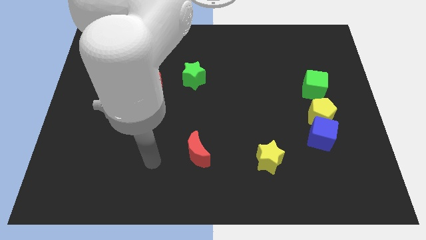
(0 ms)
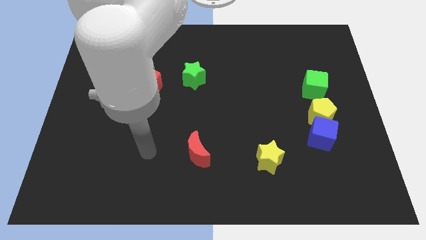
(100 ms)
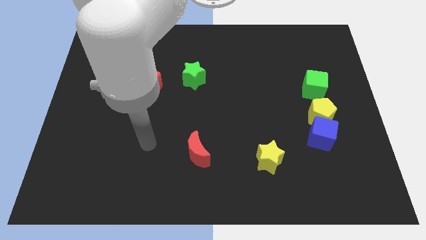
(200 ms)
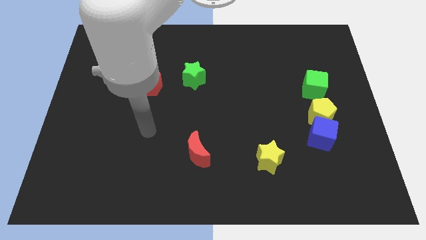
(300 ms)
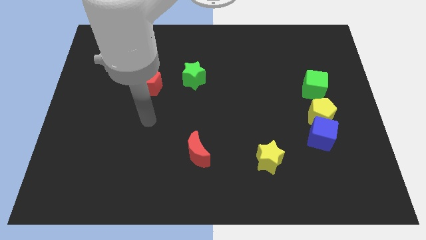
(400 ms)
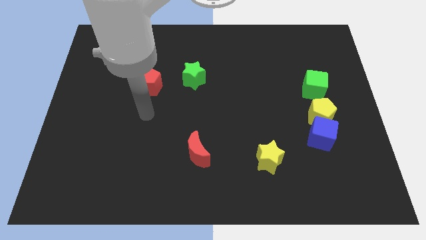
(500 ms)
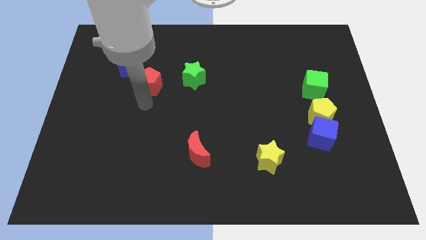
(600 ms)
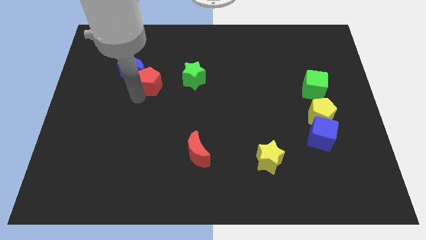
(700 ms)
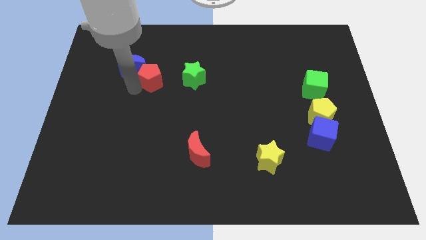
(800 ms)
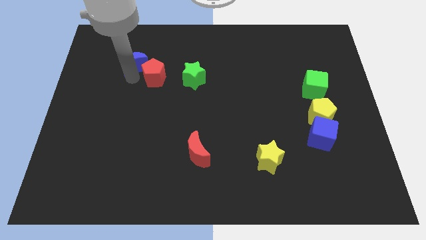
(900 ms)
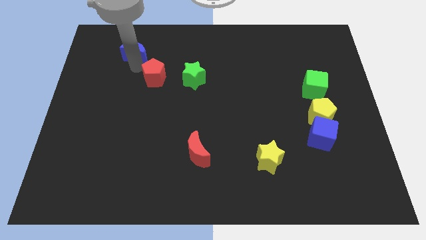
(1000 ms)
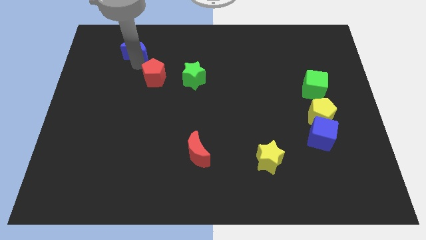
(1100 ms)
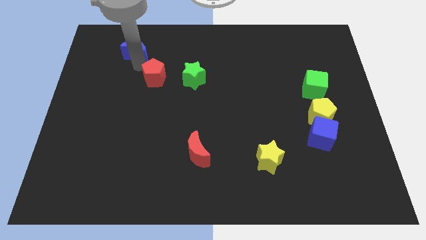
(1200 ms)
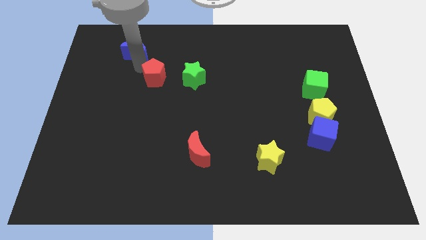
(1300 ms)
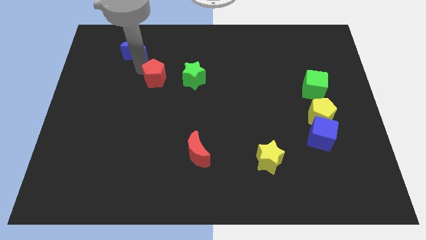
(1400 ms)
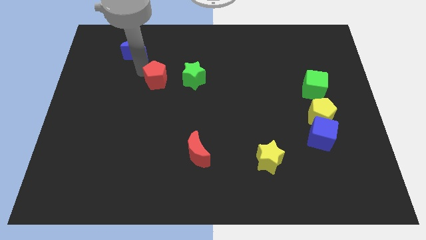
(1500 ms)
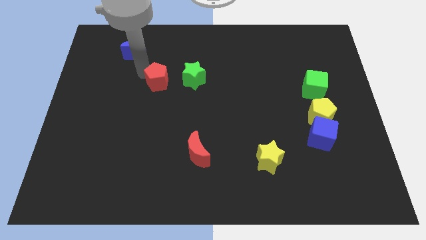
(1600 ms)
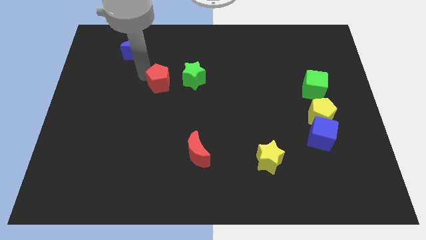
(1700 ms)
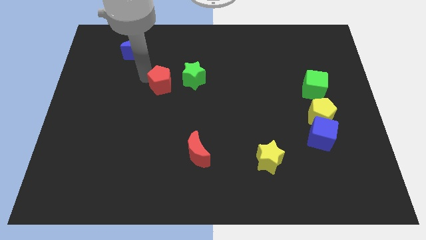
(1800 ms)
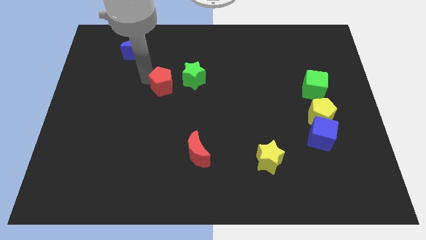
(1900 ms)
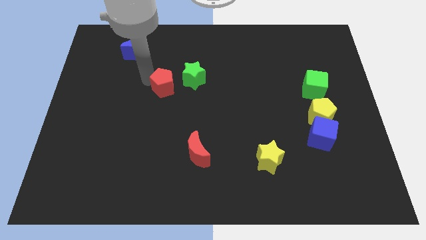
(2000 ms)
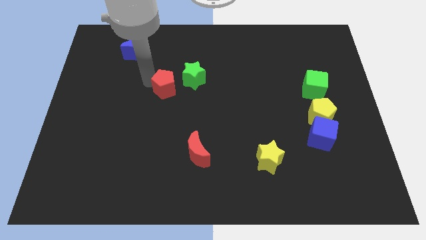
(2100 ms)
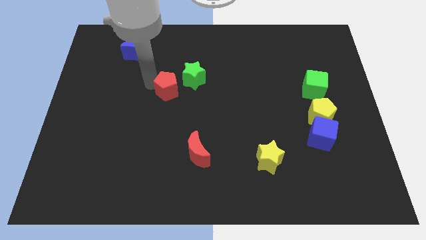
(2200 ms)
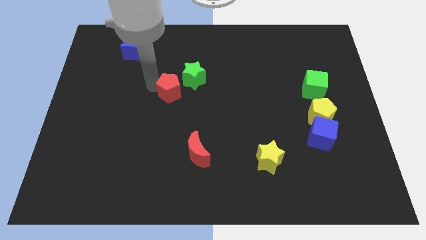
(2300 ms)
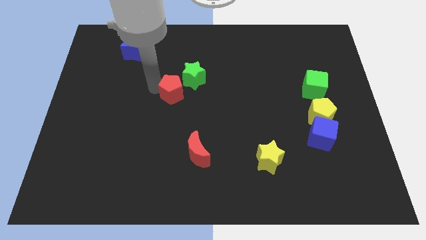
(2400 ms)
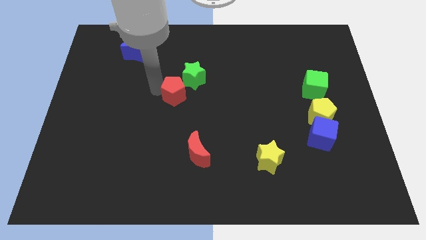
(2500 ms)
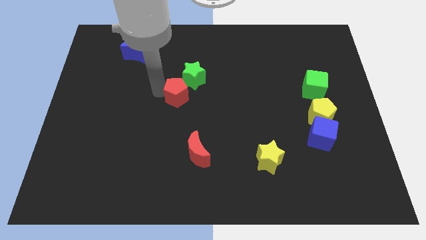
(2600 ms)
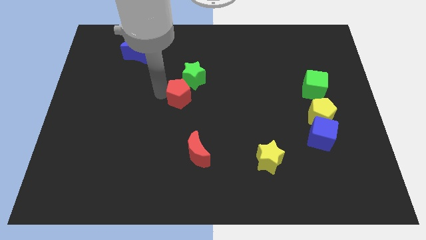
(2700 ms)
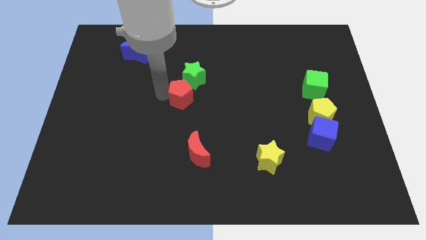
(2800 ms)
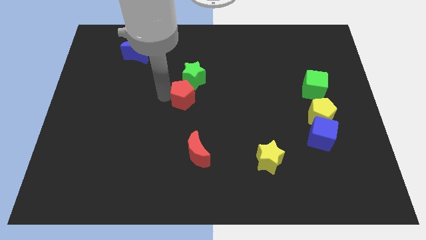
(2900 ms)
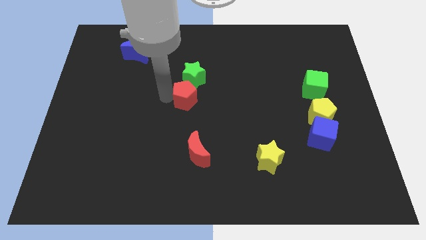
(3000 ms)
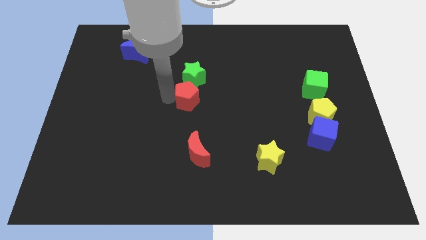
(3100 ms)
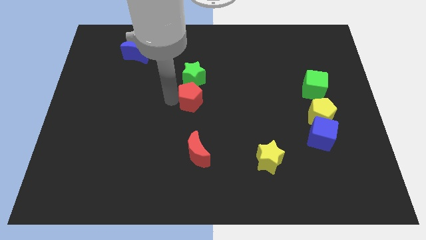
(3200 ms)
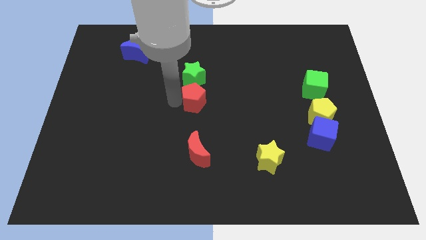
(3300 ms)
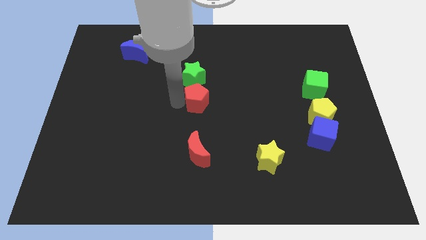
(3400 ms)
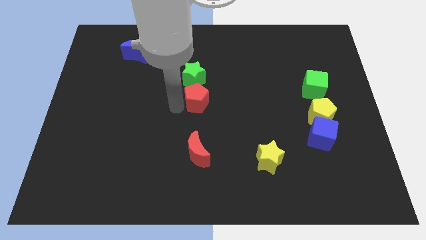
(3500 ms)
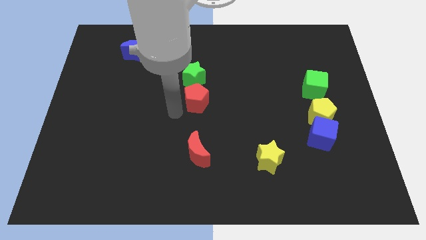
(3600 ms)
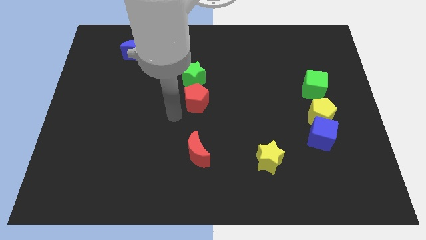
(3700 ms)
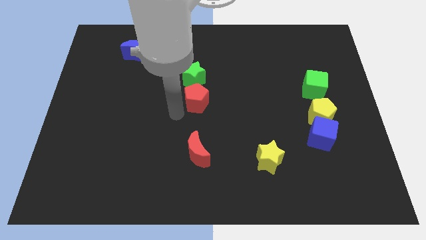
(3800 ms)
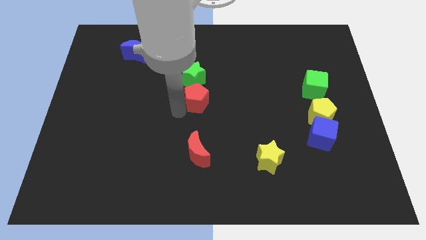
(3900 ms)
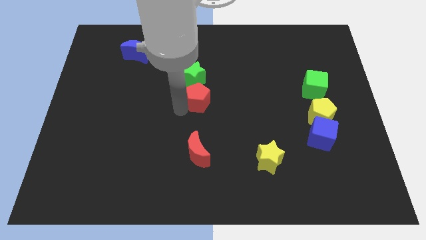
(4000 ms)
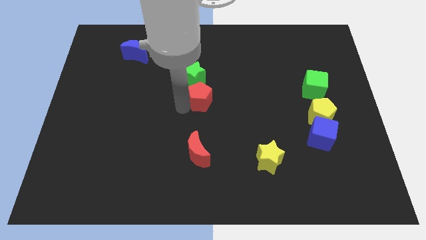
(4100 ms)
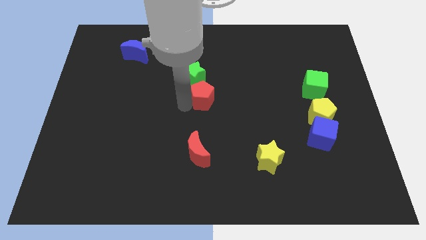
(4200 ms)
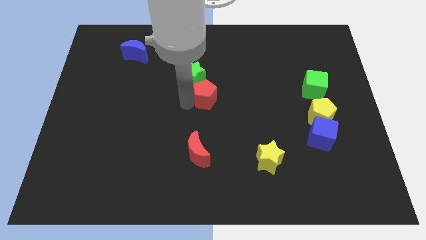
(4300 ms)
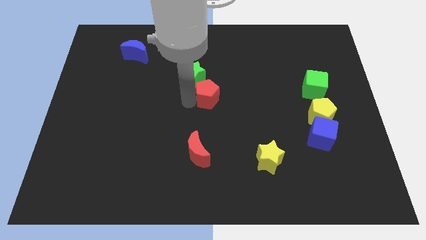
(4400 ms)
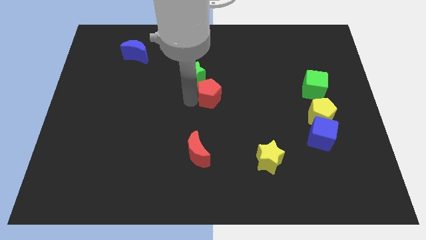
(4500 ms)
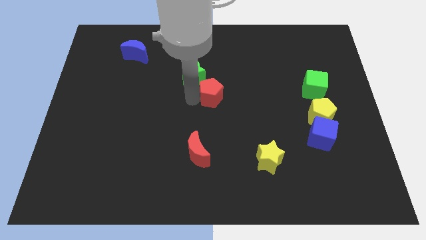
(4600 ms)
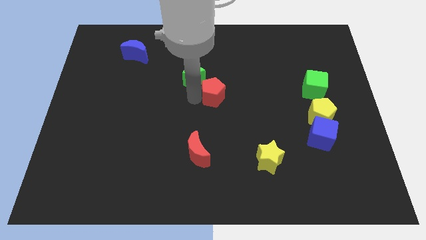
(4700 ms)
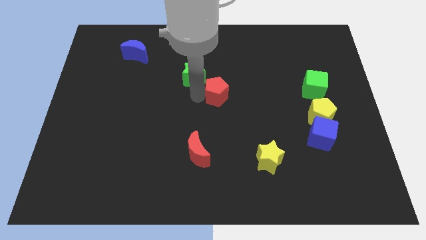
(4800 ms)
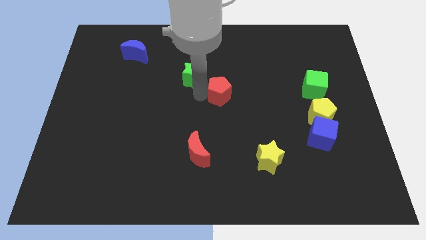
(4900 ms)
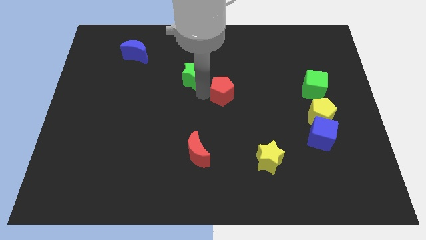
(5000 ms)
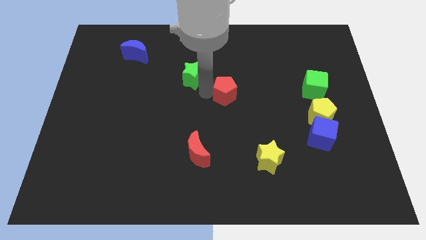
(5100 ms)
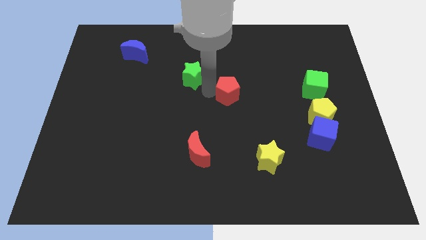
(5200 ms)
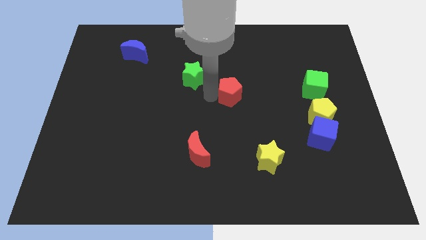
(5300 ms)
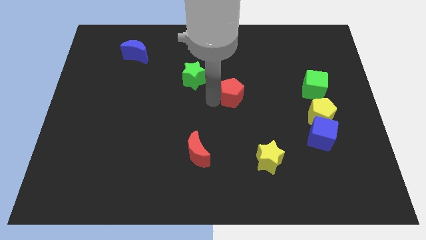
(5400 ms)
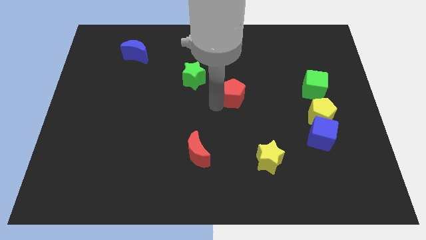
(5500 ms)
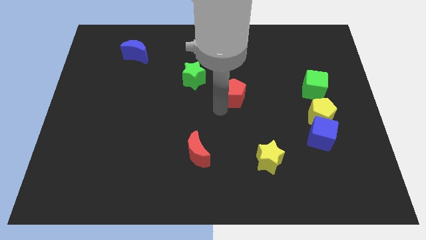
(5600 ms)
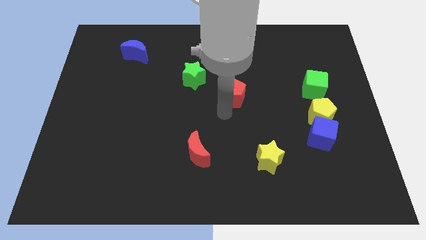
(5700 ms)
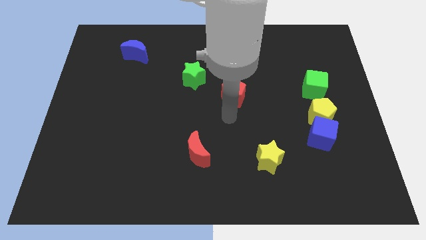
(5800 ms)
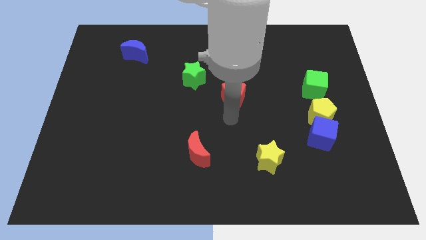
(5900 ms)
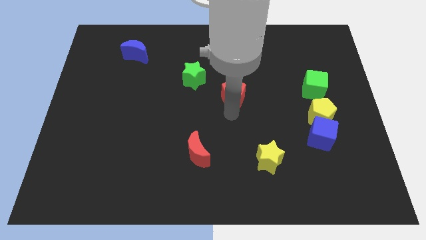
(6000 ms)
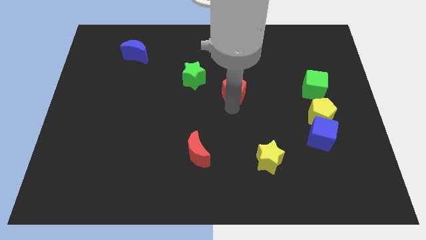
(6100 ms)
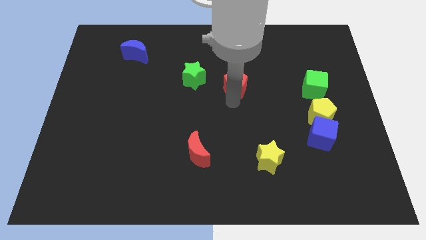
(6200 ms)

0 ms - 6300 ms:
put the red pentagon to the right side of the green star

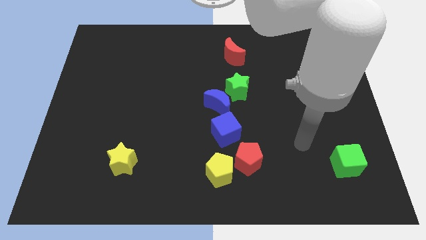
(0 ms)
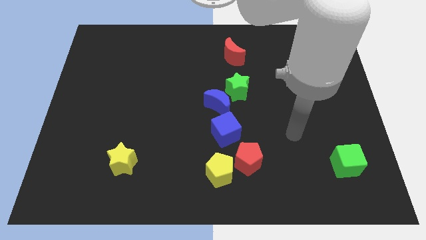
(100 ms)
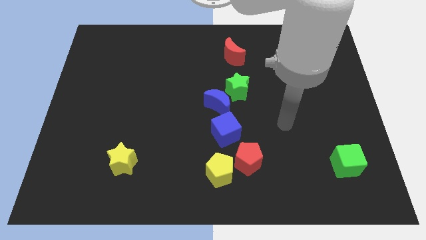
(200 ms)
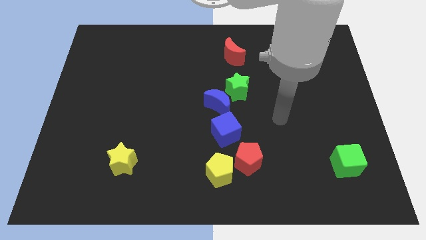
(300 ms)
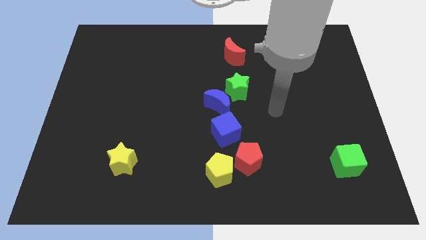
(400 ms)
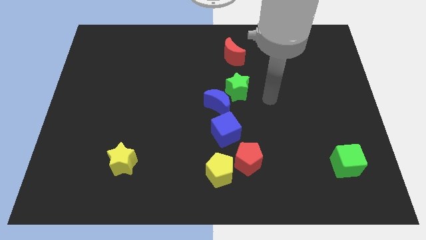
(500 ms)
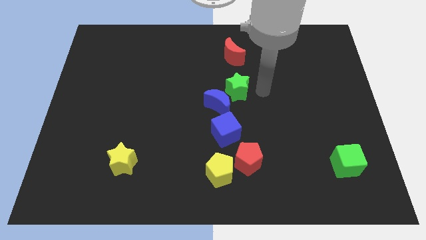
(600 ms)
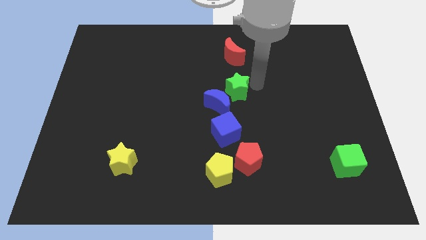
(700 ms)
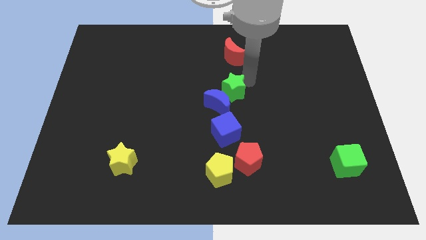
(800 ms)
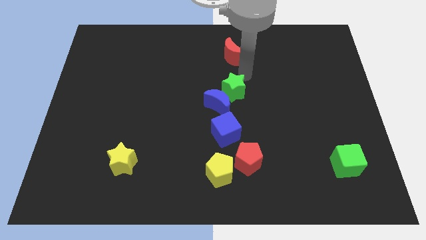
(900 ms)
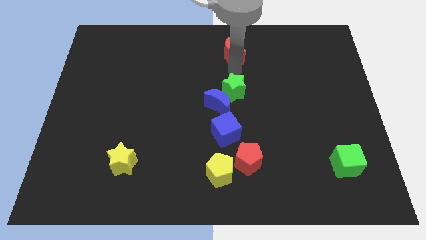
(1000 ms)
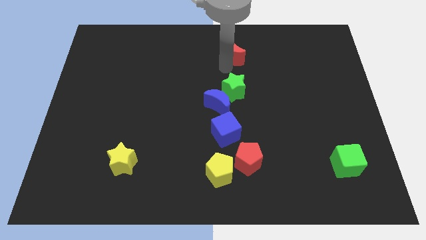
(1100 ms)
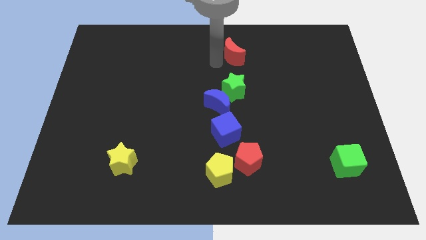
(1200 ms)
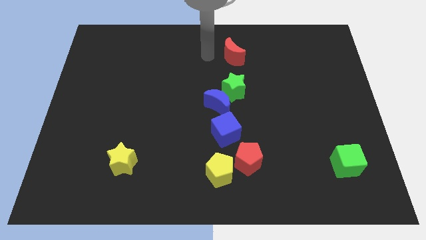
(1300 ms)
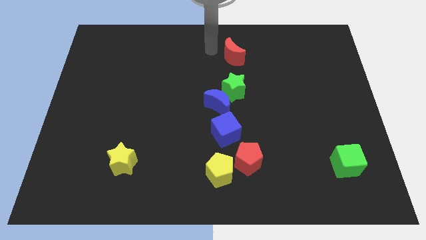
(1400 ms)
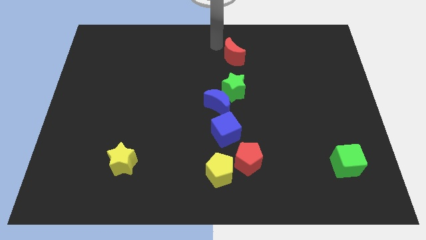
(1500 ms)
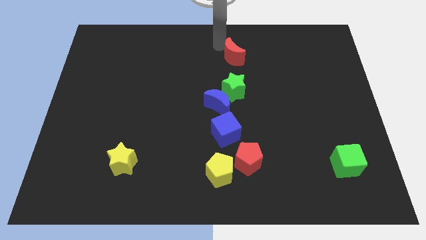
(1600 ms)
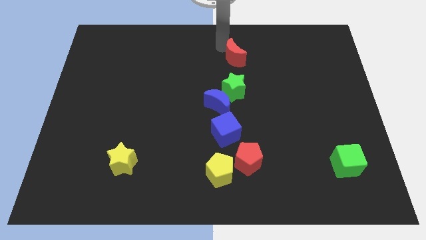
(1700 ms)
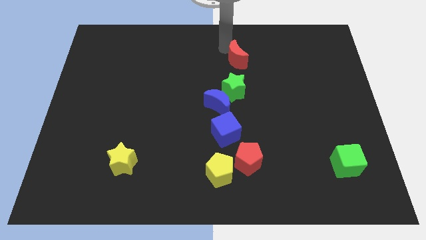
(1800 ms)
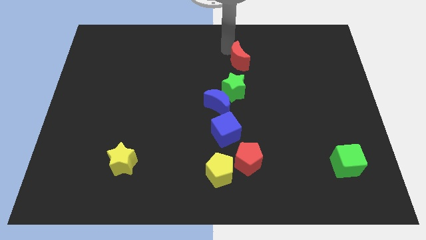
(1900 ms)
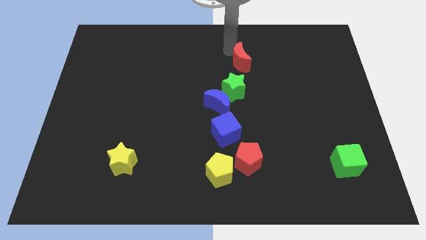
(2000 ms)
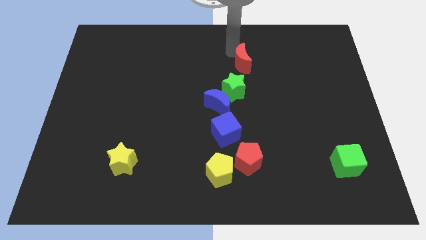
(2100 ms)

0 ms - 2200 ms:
move the red moon diagonally up and to the right of the green star
